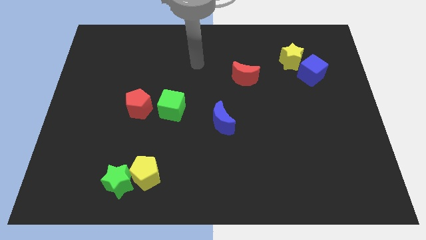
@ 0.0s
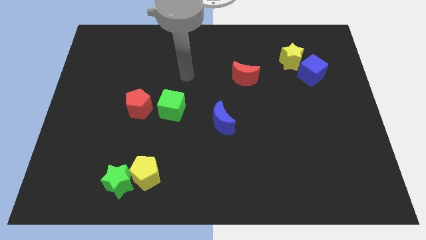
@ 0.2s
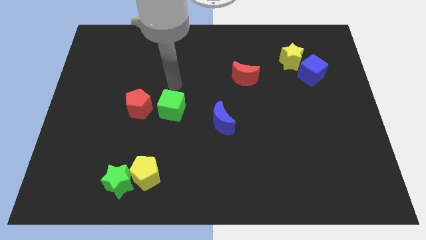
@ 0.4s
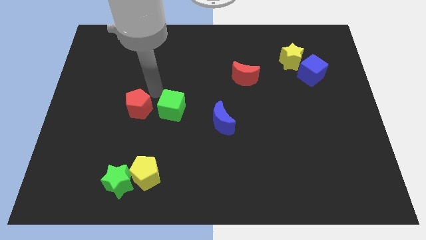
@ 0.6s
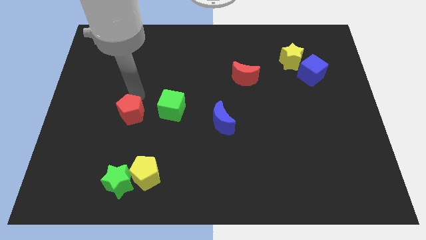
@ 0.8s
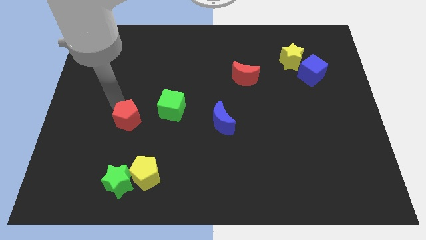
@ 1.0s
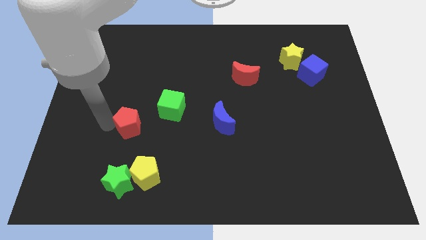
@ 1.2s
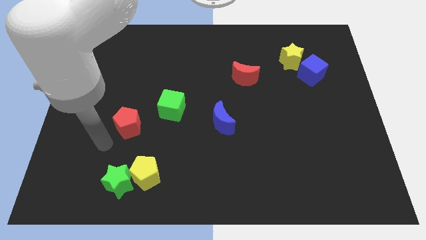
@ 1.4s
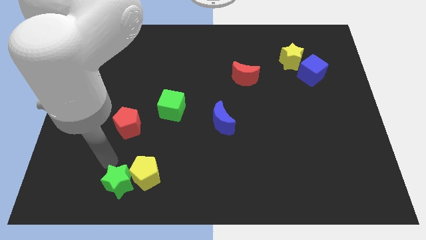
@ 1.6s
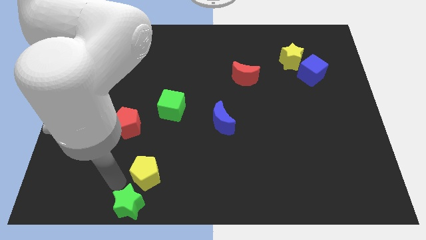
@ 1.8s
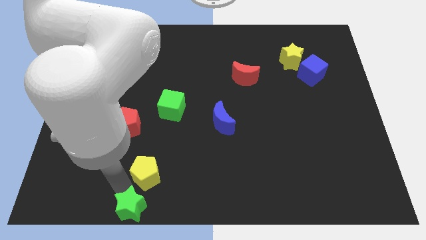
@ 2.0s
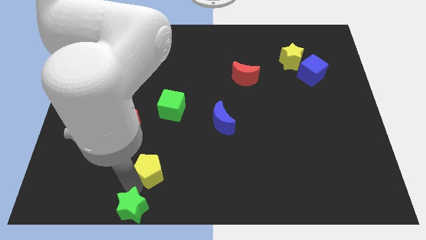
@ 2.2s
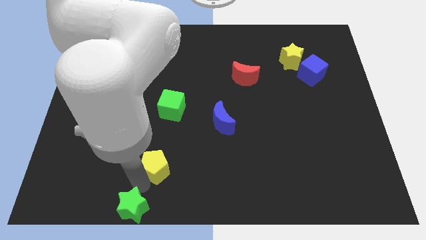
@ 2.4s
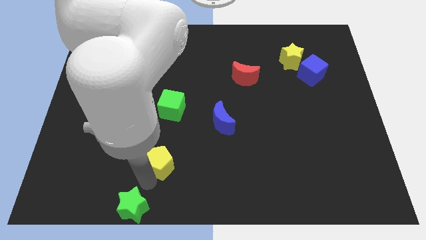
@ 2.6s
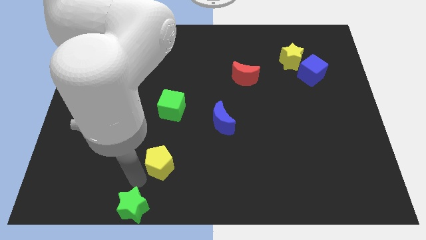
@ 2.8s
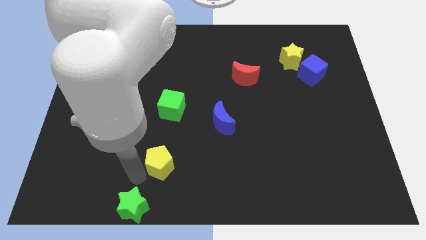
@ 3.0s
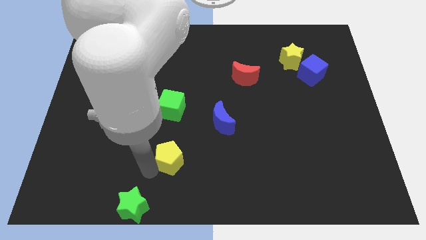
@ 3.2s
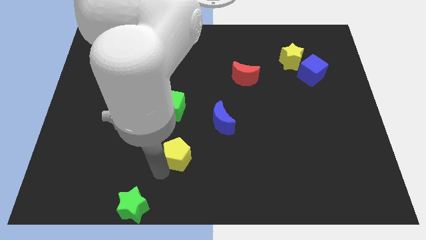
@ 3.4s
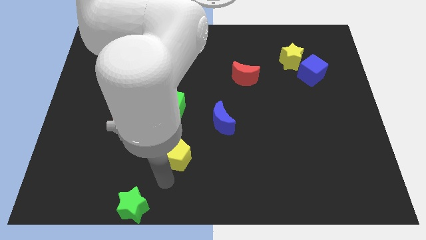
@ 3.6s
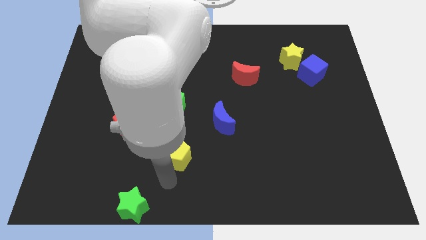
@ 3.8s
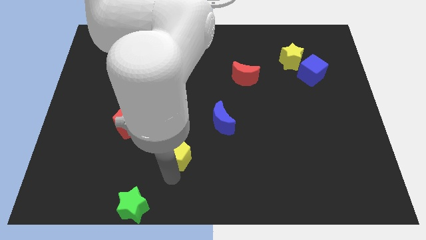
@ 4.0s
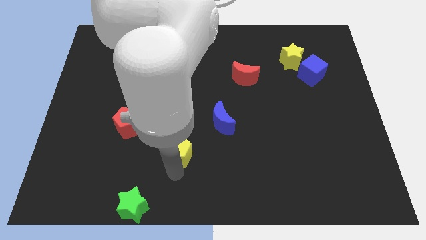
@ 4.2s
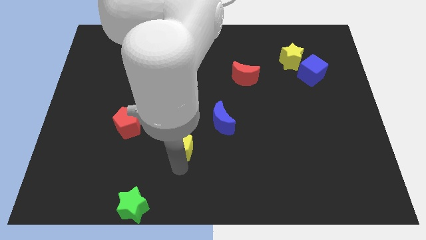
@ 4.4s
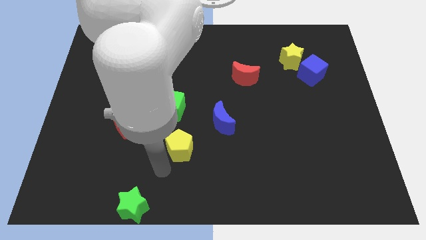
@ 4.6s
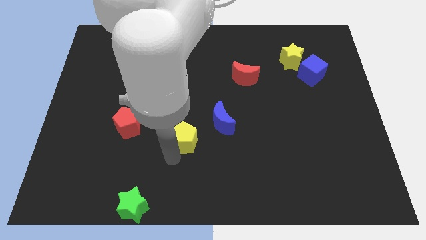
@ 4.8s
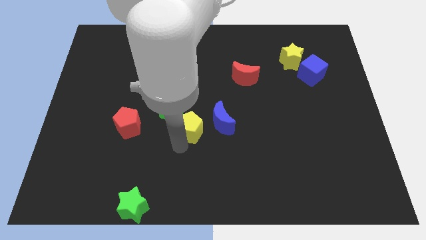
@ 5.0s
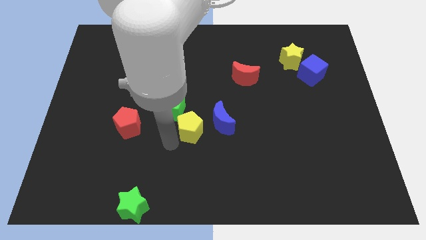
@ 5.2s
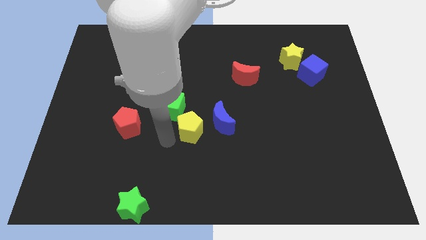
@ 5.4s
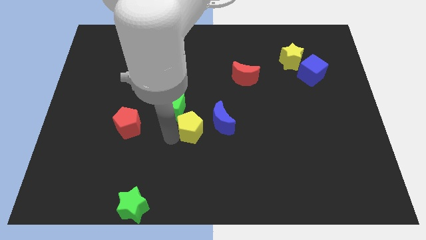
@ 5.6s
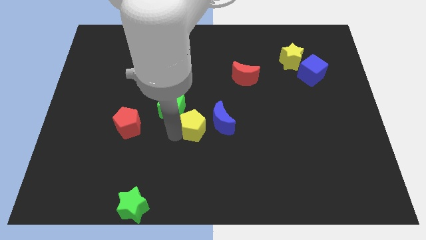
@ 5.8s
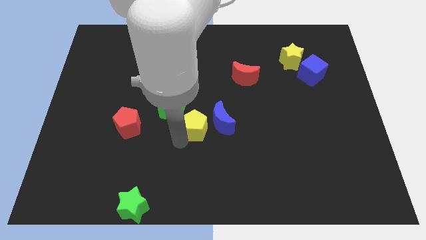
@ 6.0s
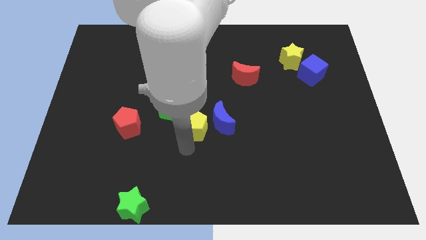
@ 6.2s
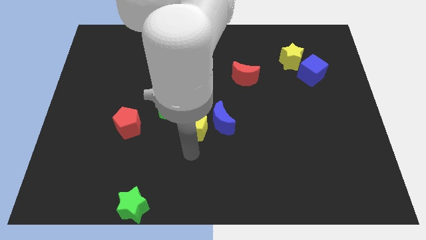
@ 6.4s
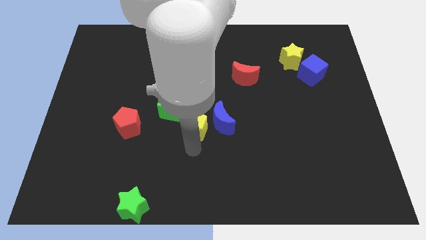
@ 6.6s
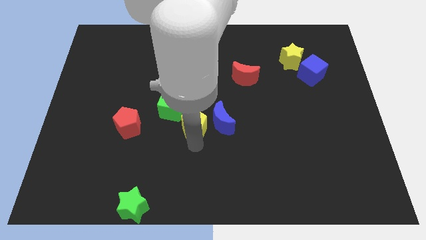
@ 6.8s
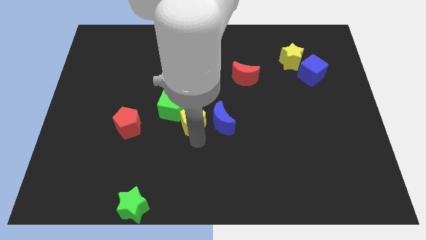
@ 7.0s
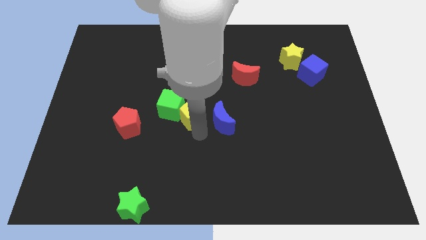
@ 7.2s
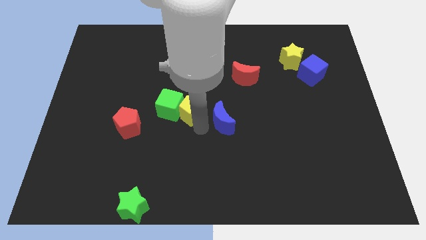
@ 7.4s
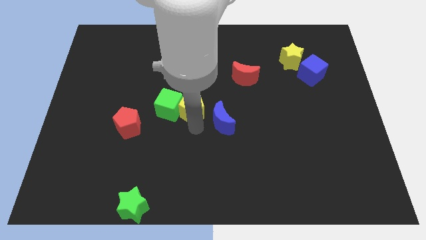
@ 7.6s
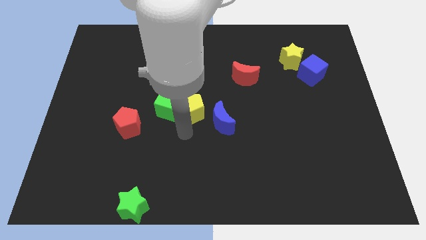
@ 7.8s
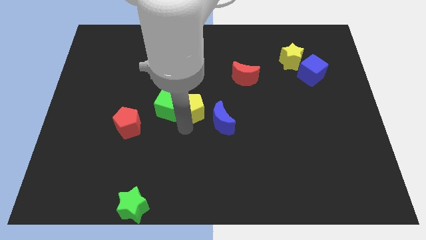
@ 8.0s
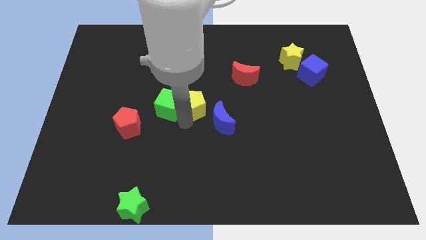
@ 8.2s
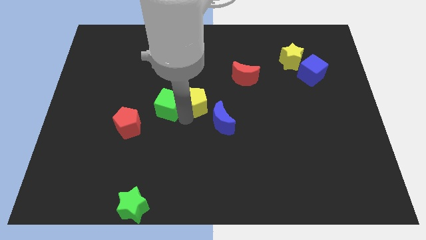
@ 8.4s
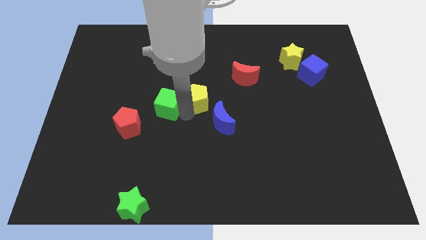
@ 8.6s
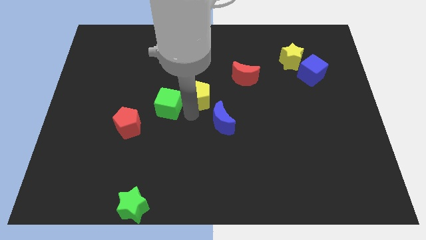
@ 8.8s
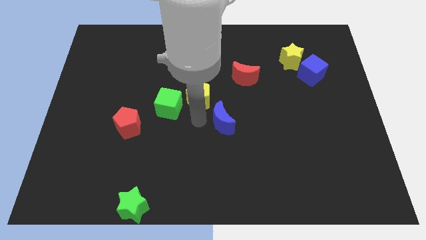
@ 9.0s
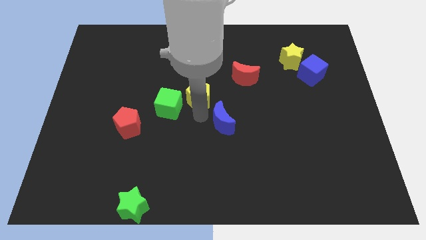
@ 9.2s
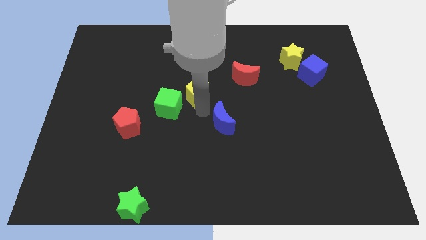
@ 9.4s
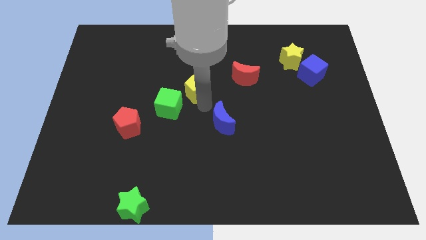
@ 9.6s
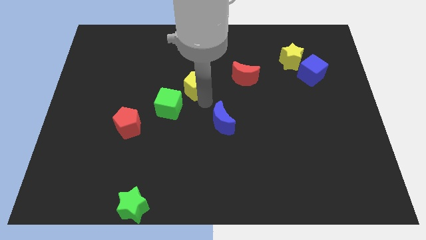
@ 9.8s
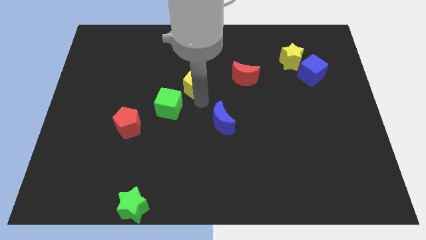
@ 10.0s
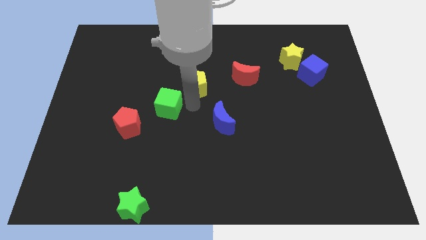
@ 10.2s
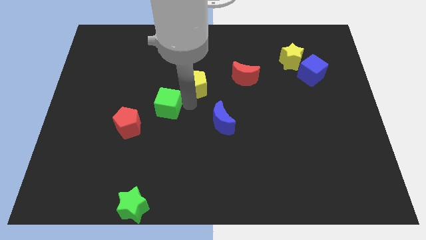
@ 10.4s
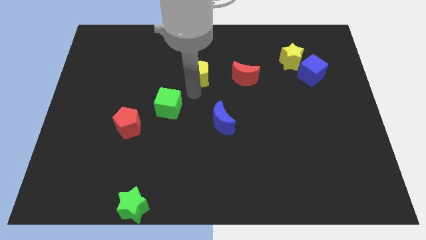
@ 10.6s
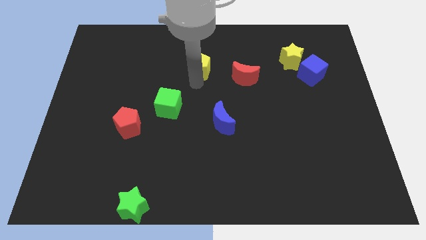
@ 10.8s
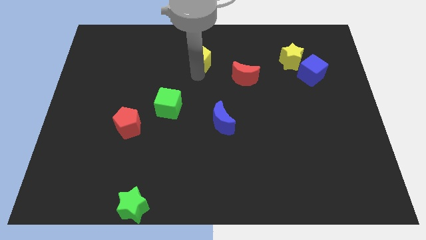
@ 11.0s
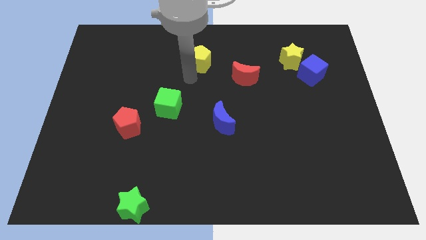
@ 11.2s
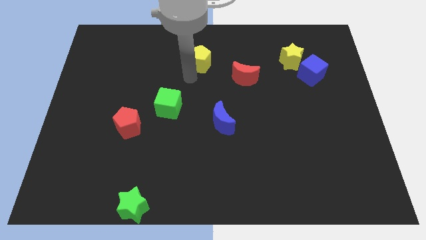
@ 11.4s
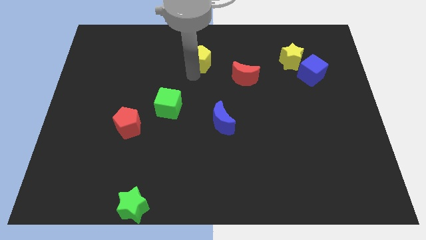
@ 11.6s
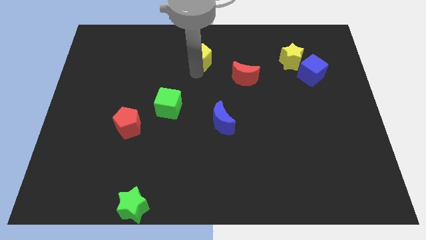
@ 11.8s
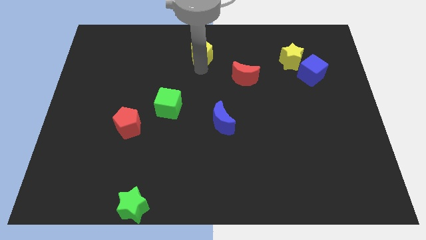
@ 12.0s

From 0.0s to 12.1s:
slide the yellow pentagon to the top

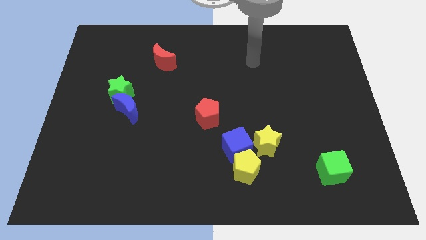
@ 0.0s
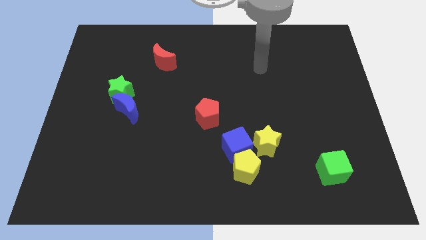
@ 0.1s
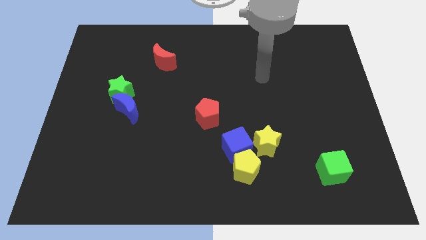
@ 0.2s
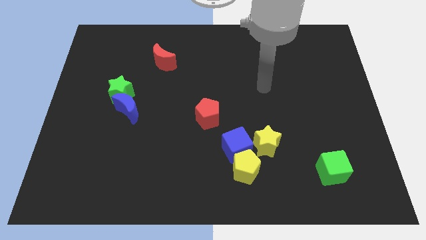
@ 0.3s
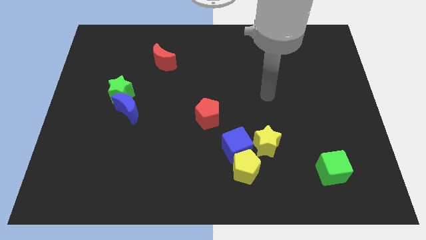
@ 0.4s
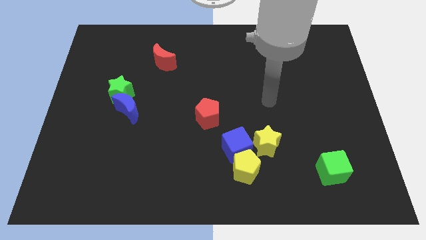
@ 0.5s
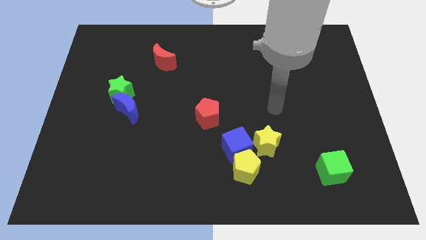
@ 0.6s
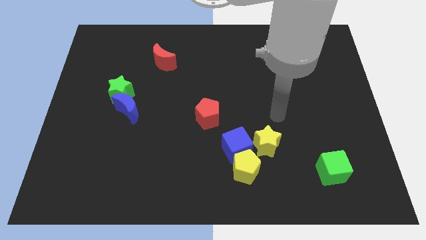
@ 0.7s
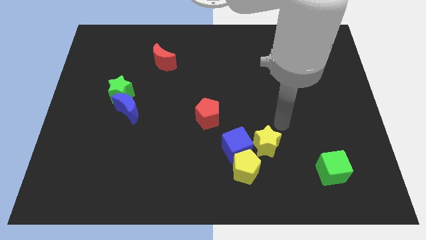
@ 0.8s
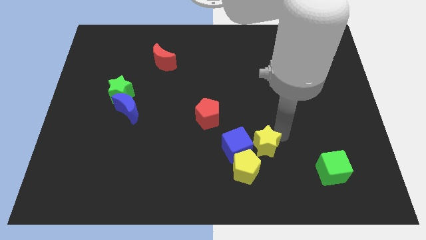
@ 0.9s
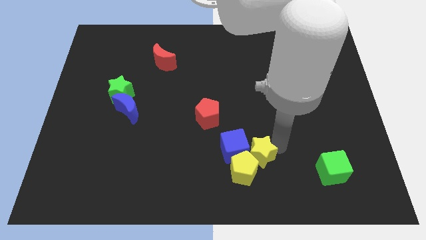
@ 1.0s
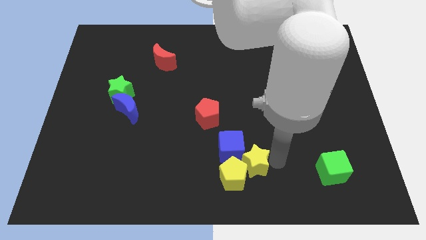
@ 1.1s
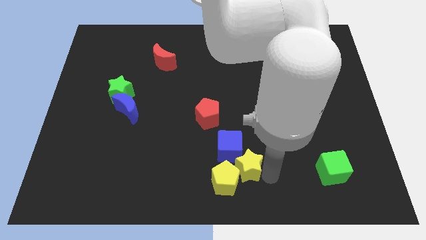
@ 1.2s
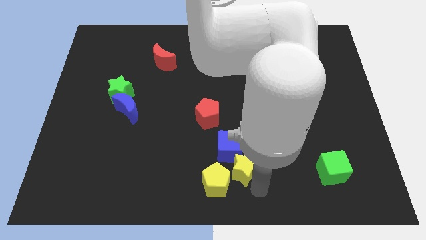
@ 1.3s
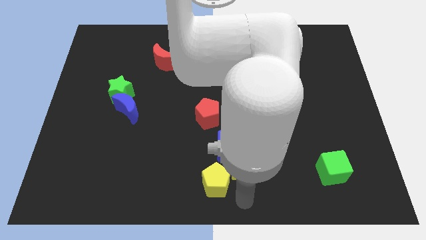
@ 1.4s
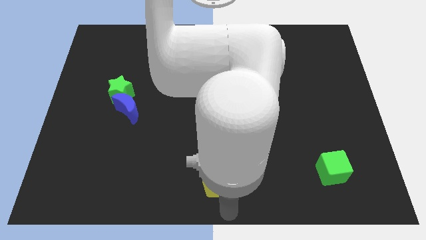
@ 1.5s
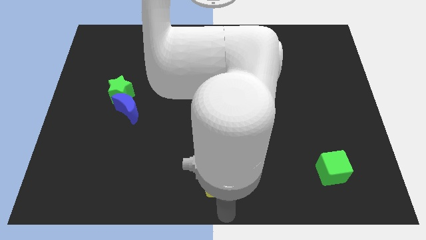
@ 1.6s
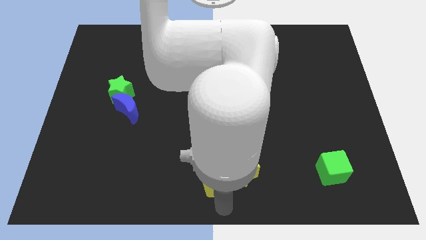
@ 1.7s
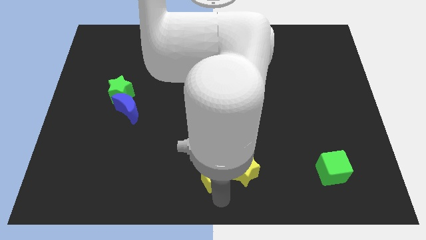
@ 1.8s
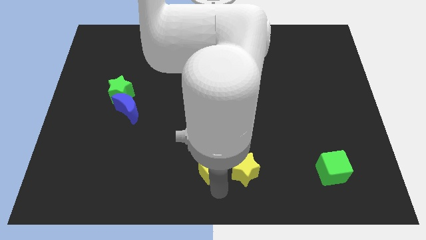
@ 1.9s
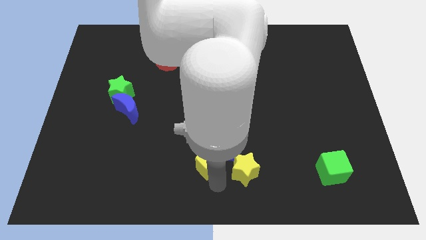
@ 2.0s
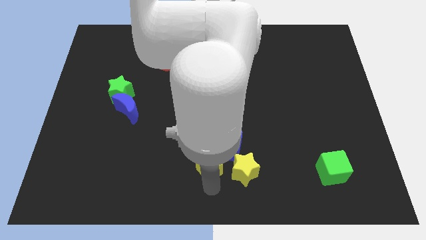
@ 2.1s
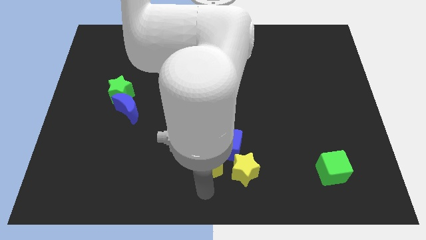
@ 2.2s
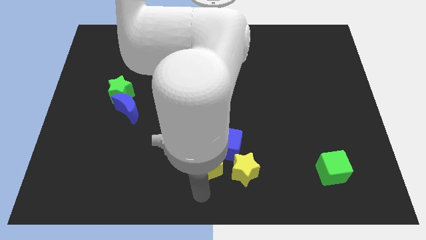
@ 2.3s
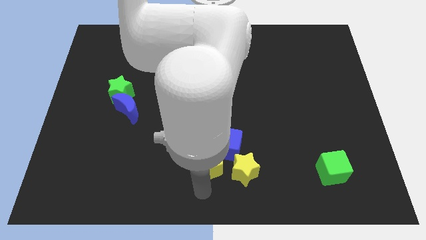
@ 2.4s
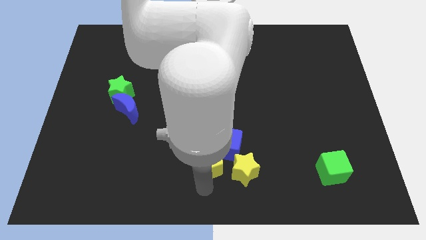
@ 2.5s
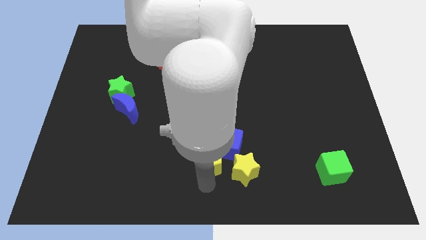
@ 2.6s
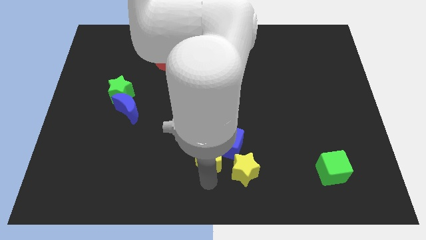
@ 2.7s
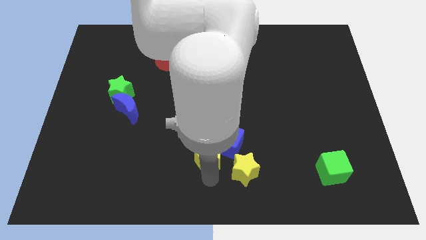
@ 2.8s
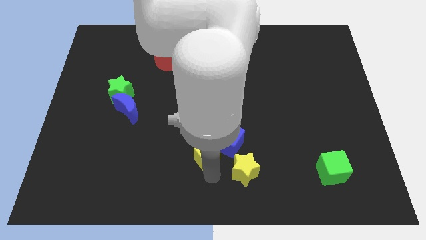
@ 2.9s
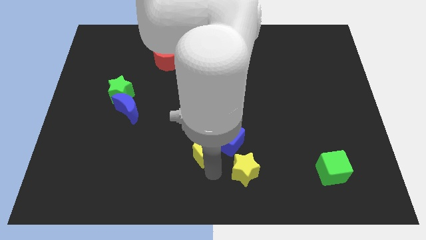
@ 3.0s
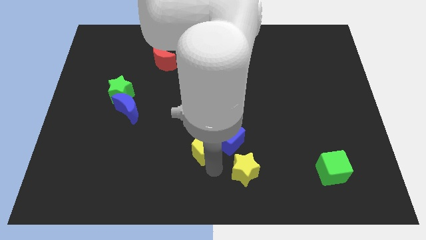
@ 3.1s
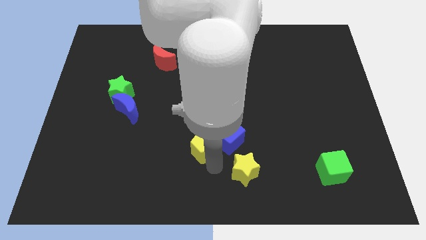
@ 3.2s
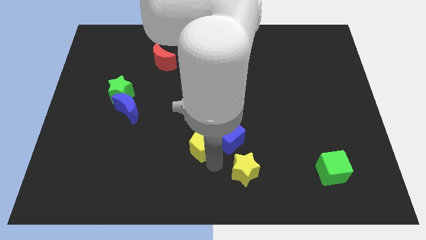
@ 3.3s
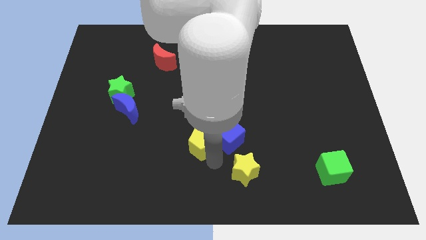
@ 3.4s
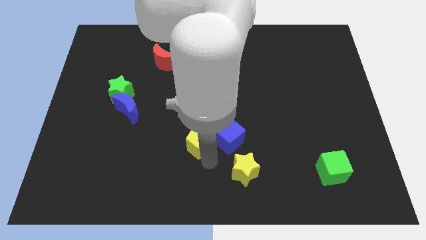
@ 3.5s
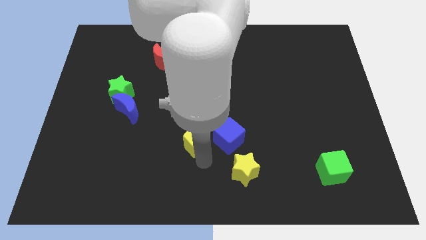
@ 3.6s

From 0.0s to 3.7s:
push the yellow pentagon to the middle
